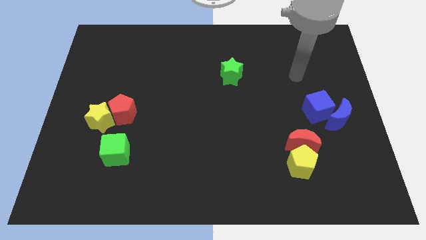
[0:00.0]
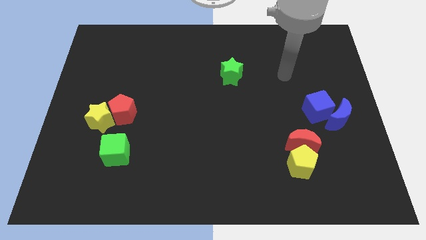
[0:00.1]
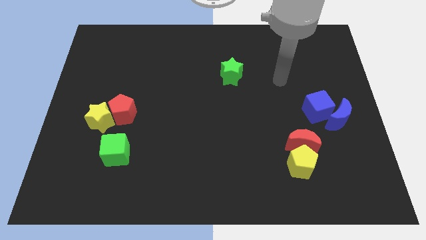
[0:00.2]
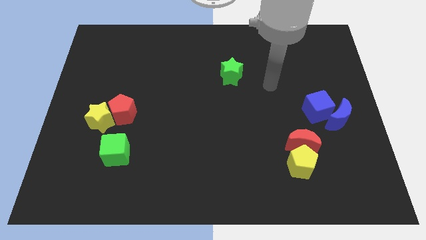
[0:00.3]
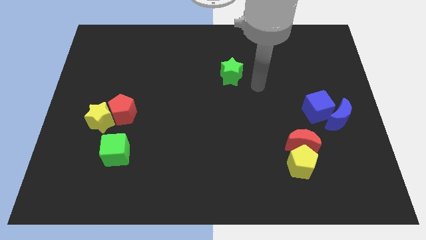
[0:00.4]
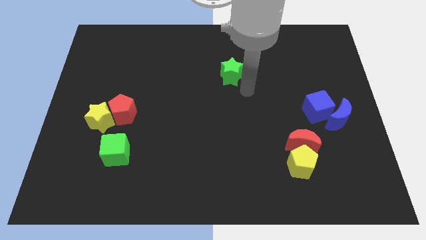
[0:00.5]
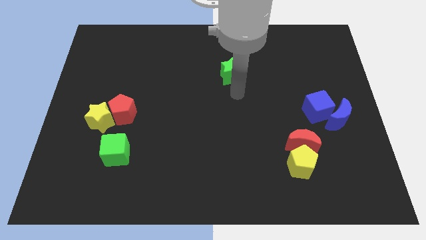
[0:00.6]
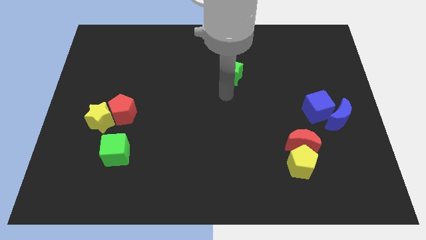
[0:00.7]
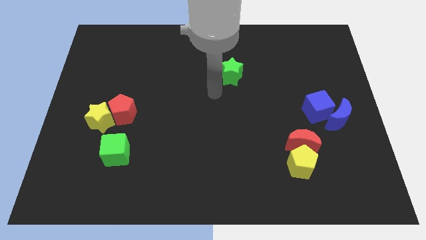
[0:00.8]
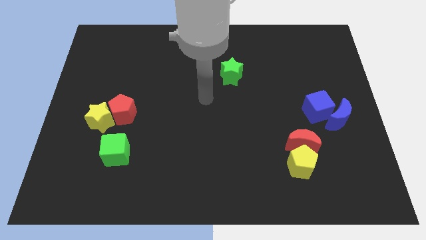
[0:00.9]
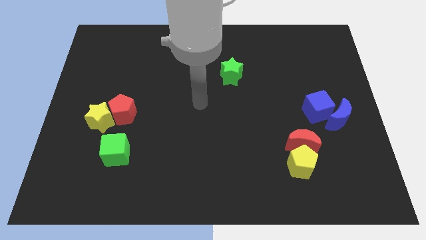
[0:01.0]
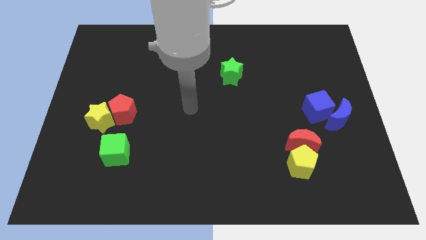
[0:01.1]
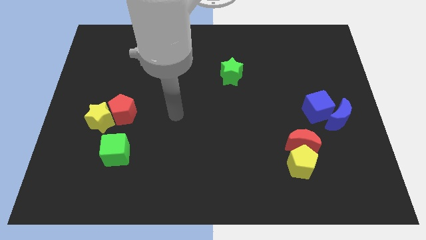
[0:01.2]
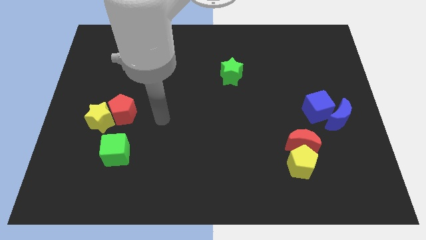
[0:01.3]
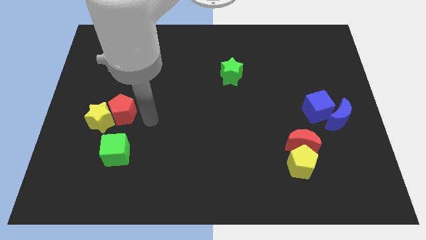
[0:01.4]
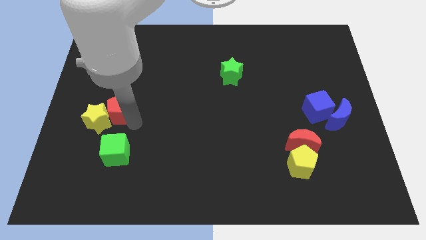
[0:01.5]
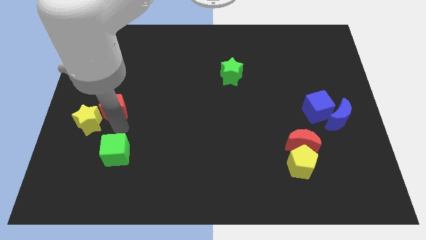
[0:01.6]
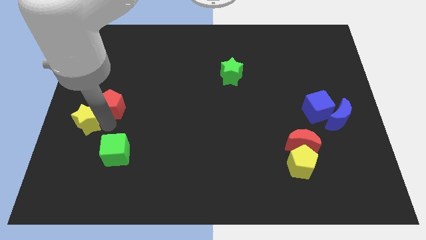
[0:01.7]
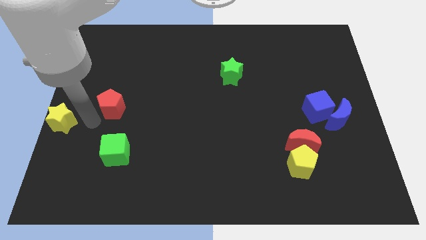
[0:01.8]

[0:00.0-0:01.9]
separate the red pentagon from the yellow star

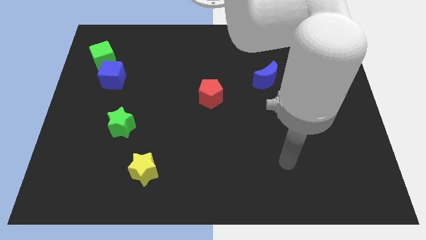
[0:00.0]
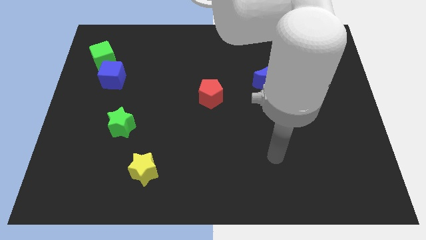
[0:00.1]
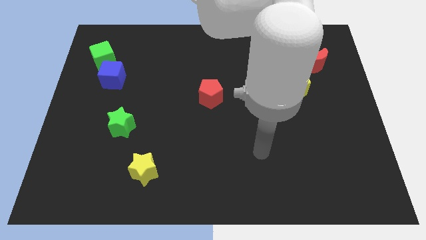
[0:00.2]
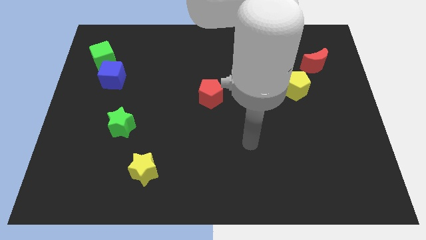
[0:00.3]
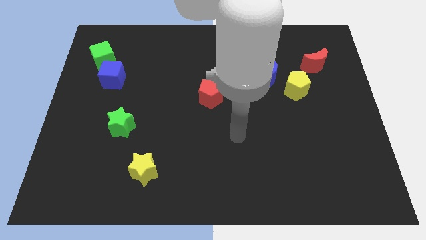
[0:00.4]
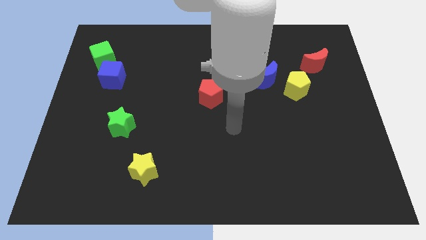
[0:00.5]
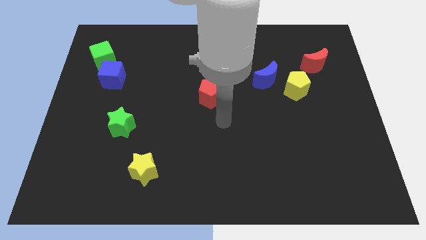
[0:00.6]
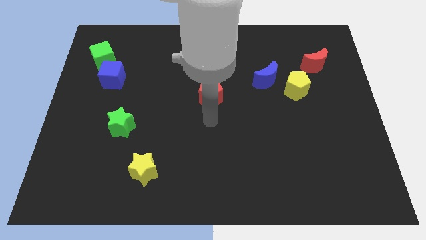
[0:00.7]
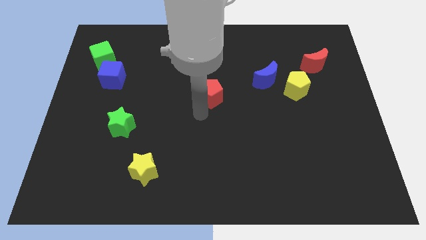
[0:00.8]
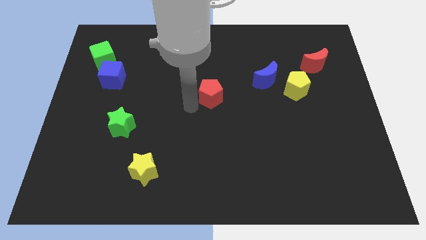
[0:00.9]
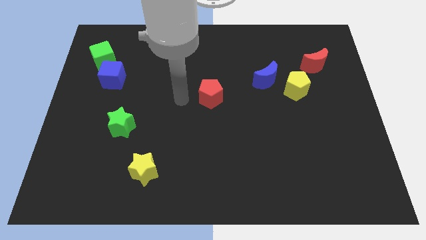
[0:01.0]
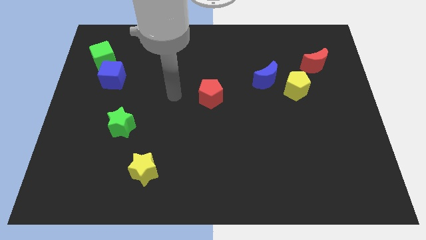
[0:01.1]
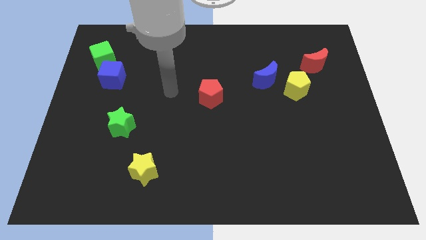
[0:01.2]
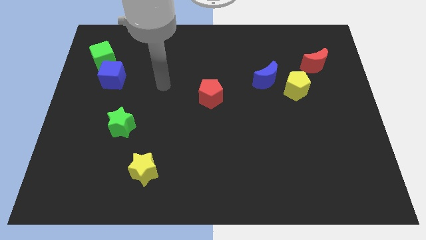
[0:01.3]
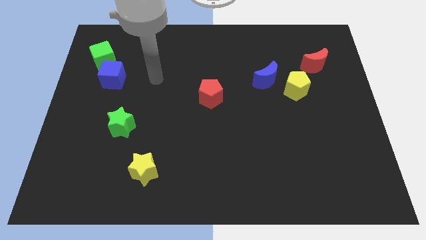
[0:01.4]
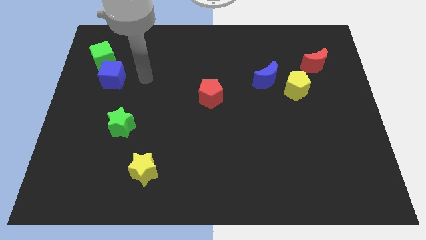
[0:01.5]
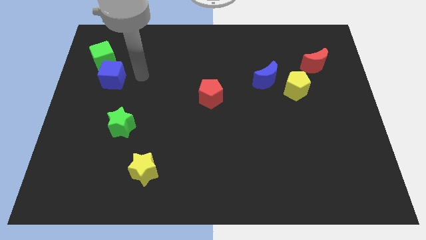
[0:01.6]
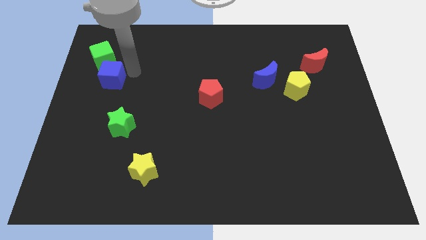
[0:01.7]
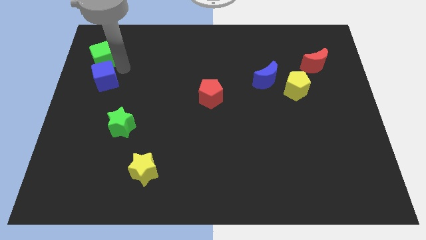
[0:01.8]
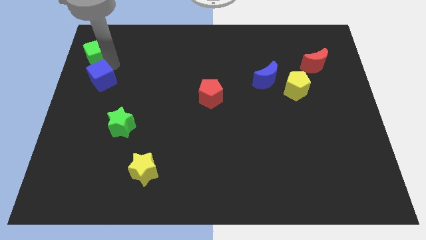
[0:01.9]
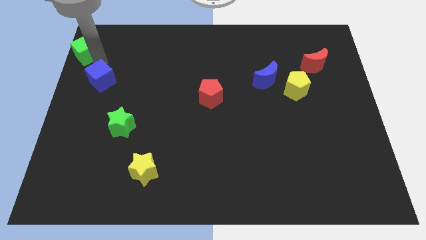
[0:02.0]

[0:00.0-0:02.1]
pull the blue cube apart from the green cube

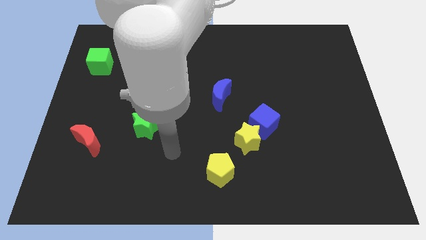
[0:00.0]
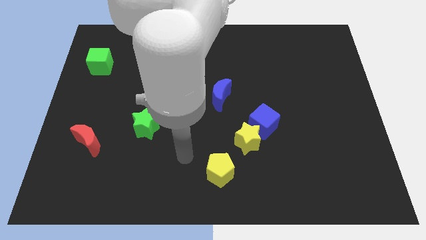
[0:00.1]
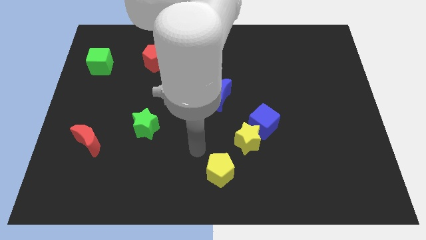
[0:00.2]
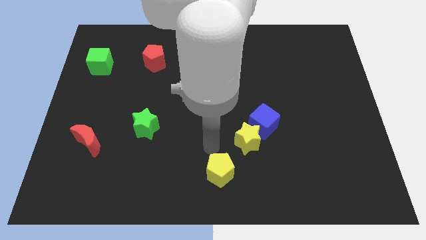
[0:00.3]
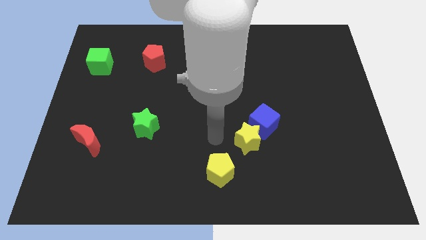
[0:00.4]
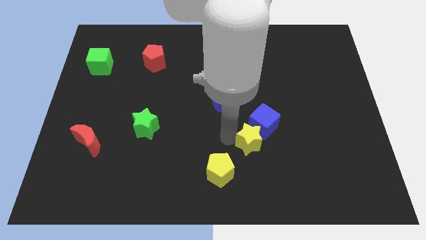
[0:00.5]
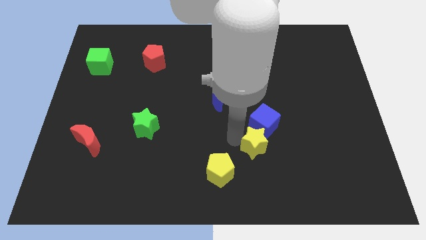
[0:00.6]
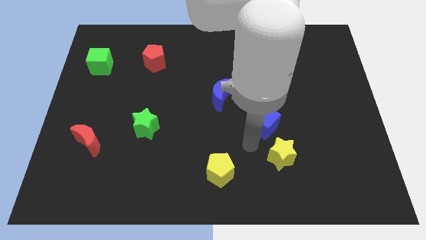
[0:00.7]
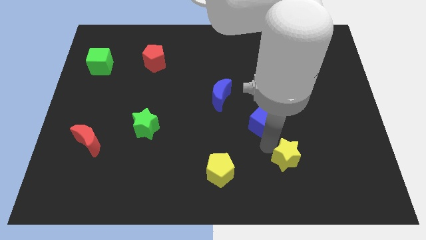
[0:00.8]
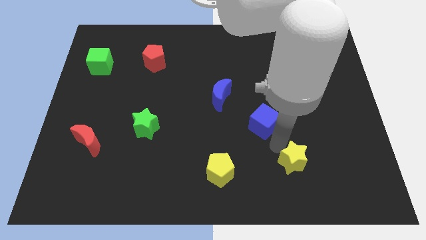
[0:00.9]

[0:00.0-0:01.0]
pull the blue cube apart from the yellow star

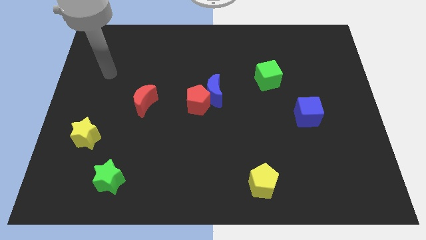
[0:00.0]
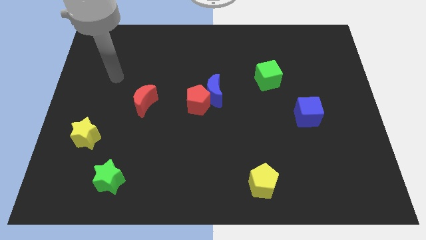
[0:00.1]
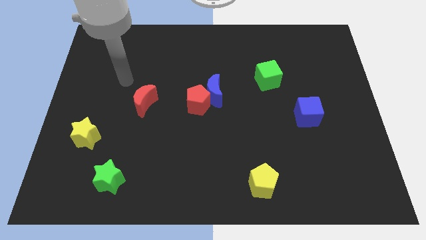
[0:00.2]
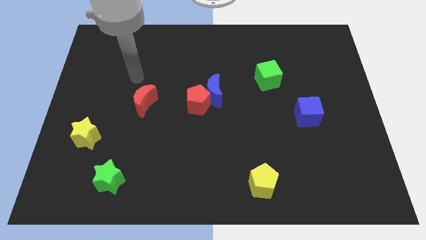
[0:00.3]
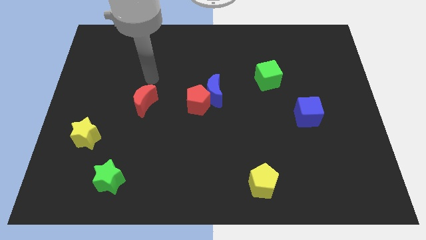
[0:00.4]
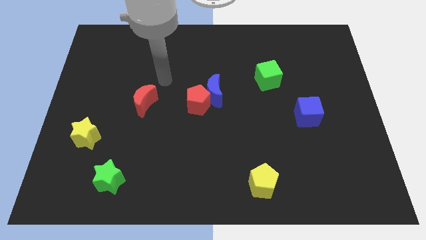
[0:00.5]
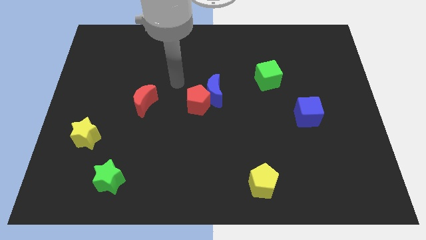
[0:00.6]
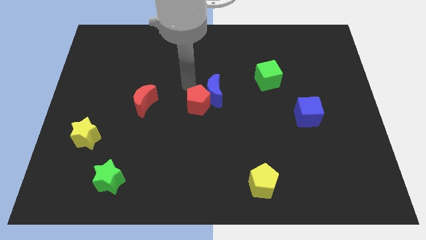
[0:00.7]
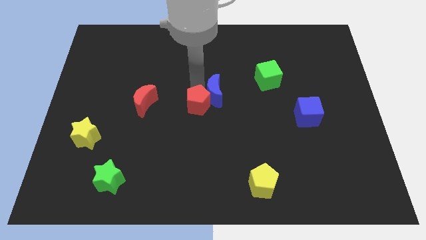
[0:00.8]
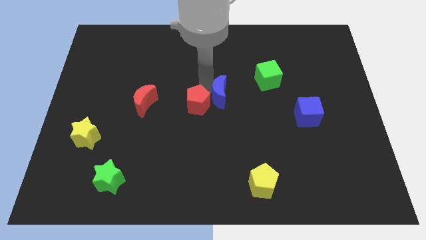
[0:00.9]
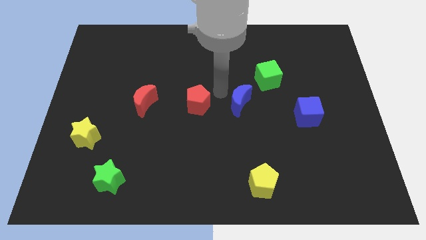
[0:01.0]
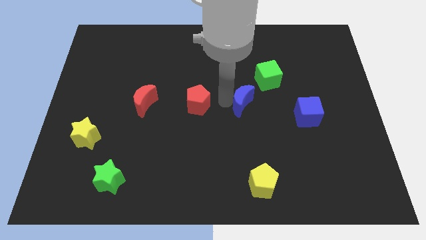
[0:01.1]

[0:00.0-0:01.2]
pull the red pentagon apart from the blue moon

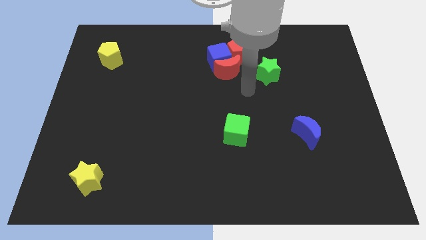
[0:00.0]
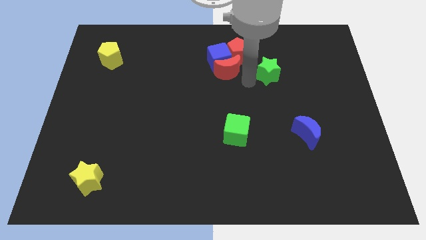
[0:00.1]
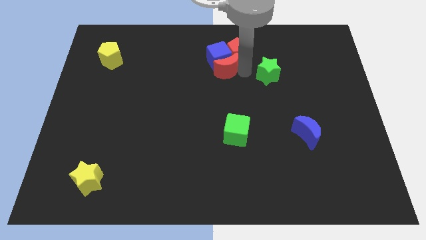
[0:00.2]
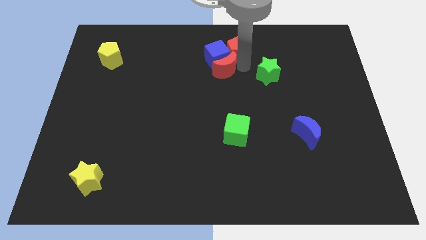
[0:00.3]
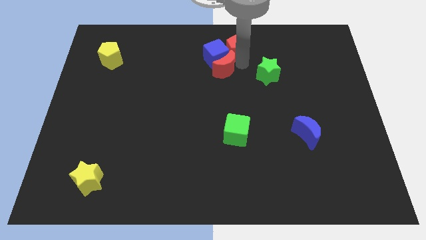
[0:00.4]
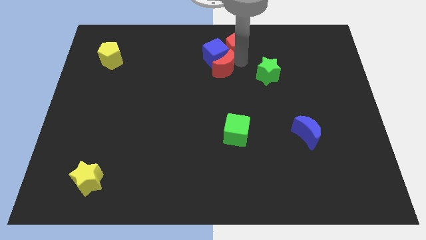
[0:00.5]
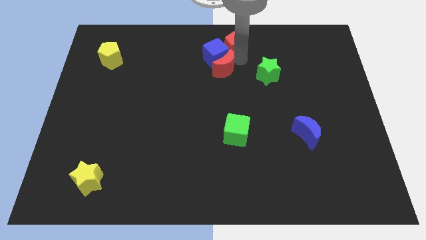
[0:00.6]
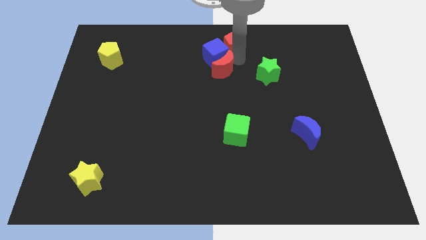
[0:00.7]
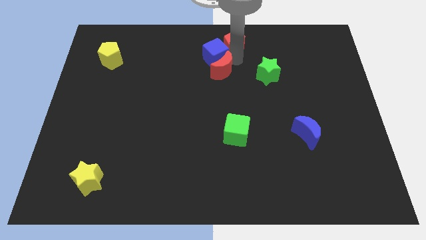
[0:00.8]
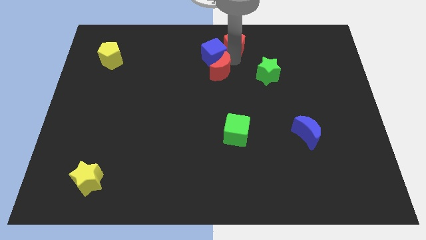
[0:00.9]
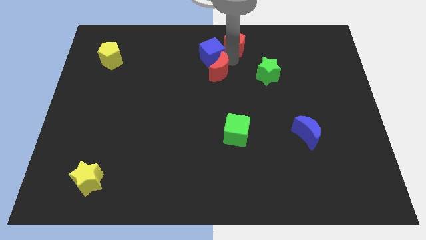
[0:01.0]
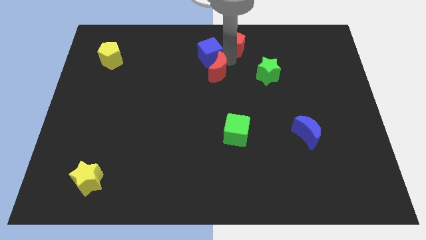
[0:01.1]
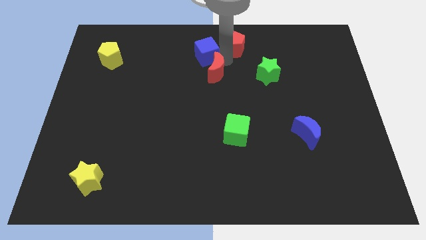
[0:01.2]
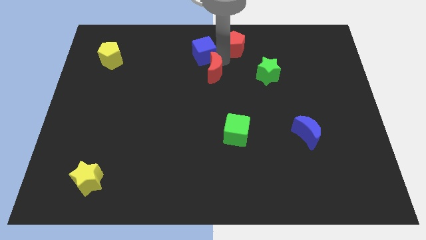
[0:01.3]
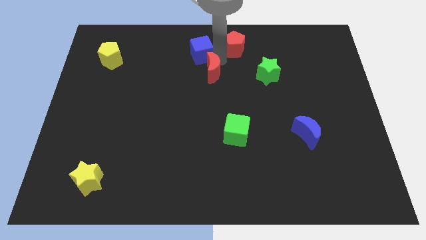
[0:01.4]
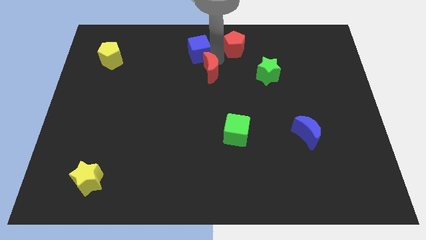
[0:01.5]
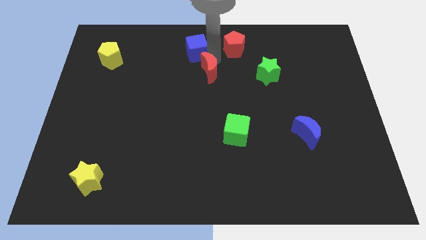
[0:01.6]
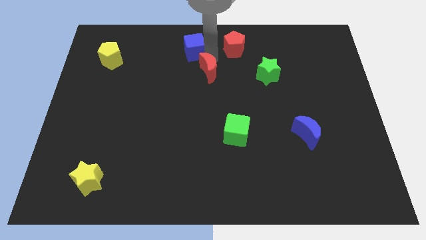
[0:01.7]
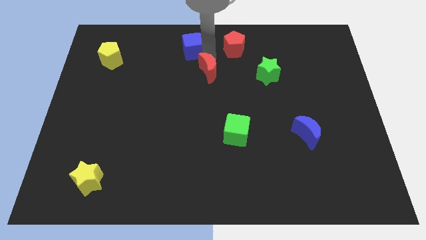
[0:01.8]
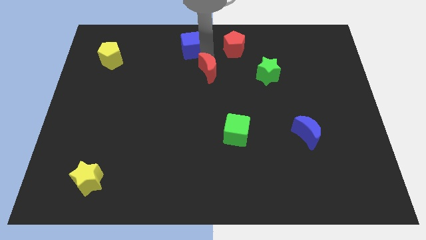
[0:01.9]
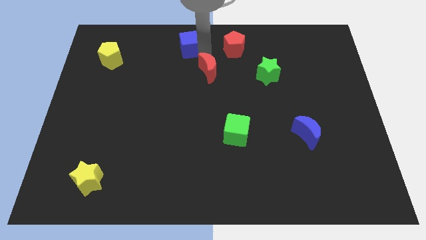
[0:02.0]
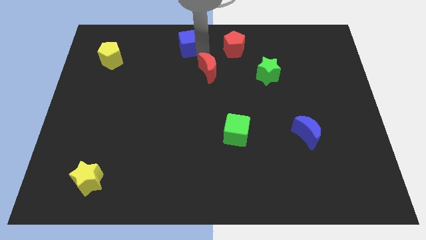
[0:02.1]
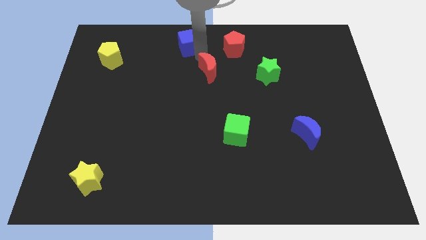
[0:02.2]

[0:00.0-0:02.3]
separate the blue cube from the red moon and red pentagon

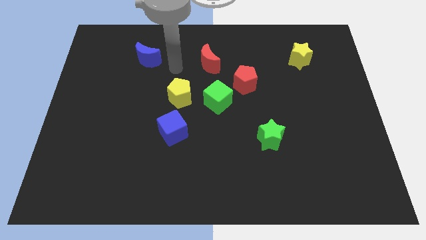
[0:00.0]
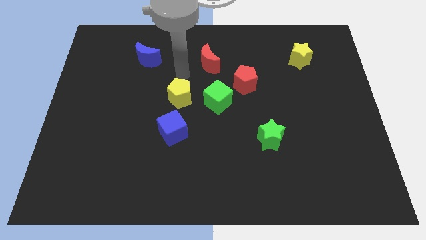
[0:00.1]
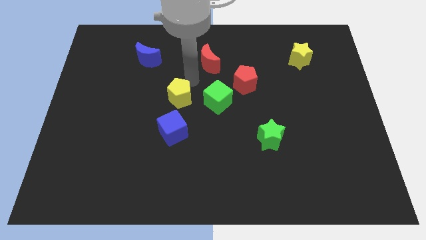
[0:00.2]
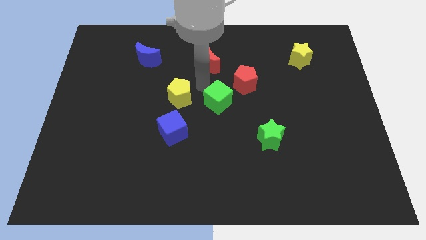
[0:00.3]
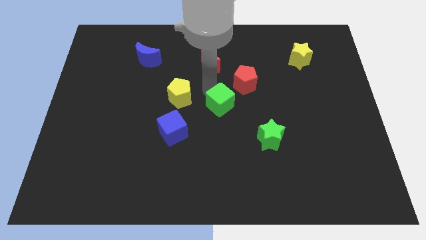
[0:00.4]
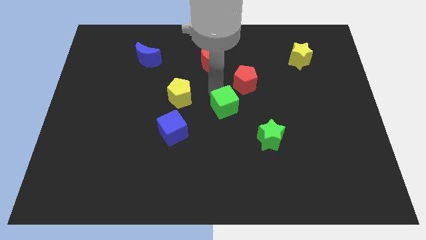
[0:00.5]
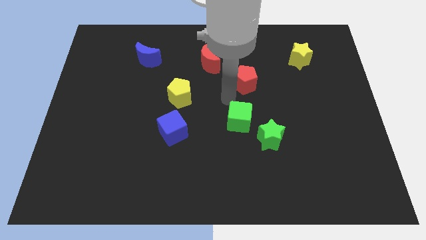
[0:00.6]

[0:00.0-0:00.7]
move the red pentagon away from the green cube

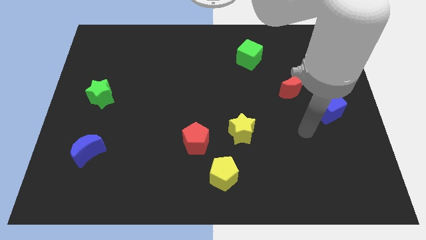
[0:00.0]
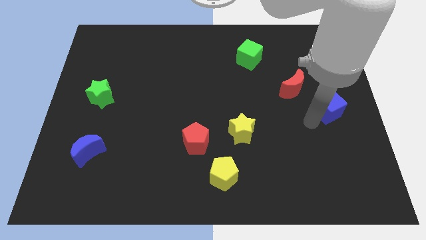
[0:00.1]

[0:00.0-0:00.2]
separate the red moon from the blue cube
